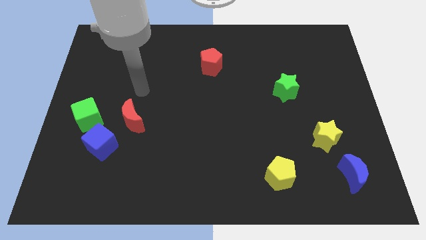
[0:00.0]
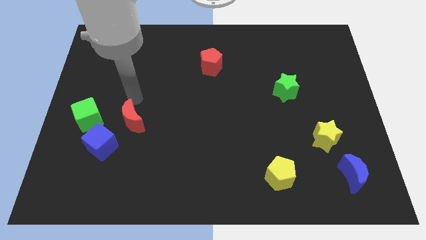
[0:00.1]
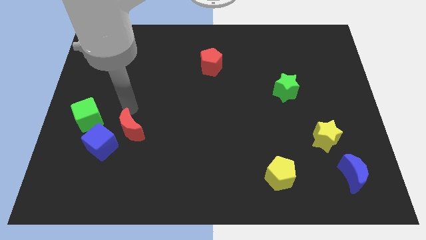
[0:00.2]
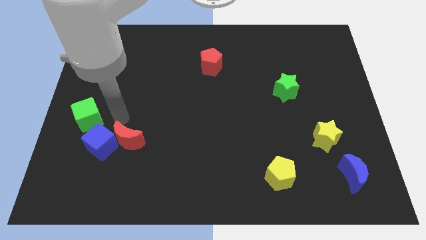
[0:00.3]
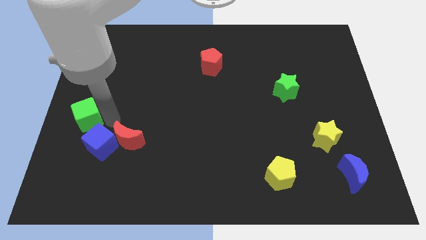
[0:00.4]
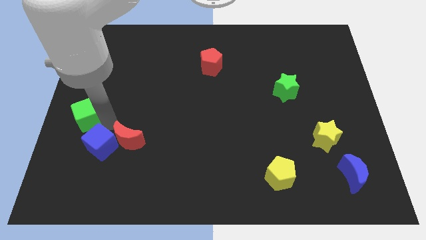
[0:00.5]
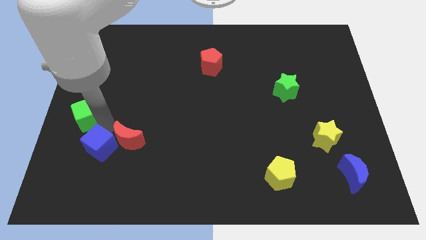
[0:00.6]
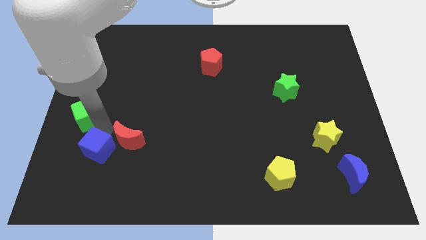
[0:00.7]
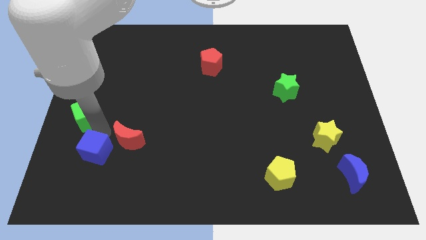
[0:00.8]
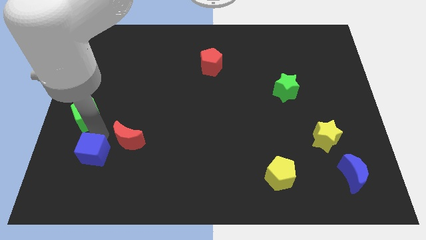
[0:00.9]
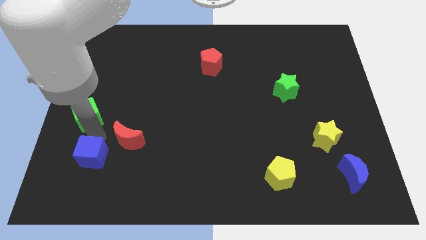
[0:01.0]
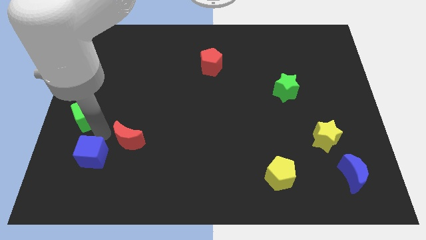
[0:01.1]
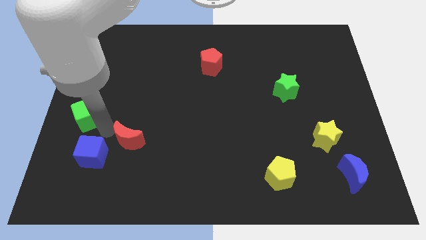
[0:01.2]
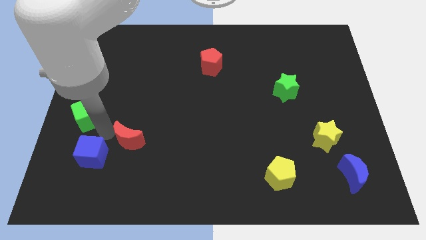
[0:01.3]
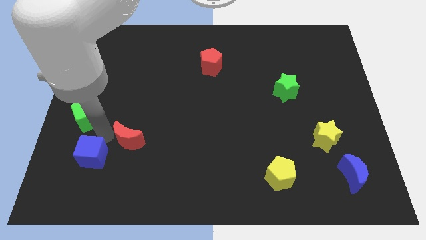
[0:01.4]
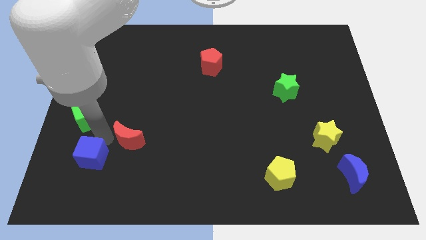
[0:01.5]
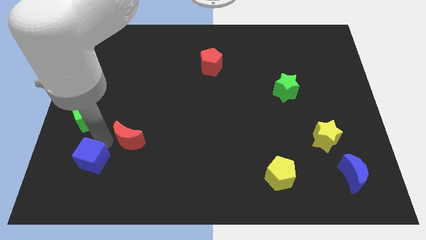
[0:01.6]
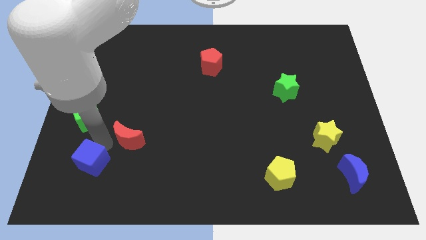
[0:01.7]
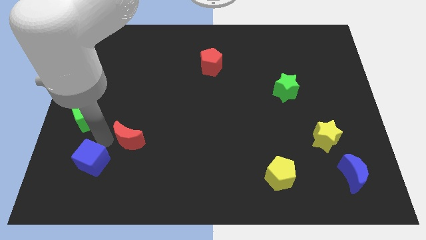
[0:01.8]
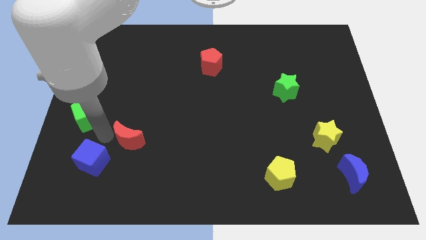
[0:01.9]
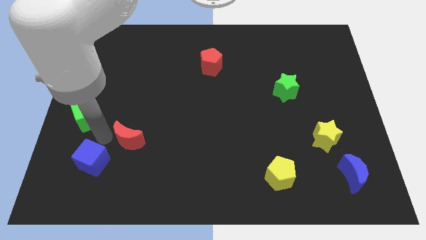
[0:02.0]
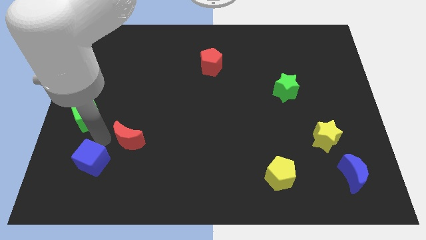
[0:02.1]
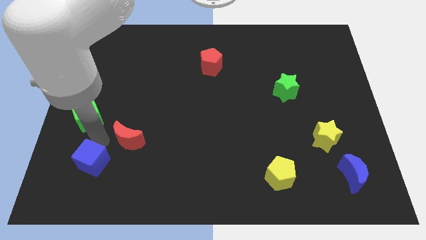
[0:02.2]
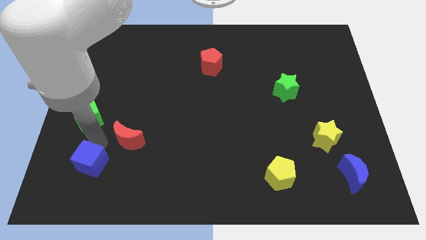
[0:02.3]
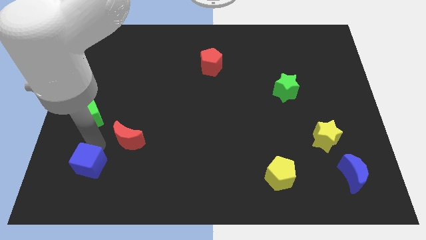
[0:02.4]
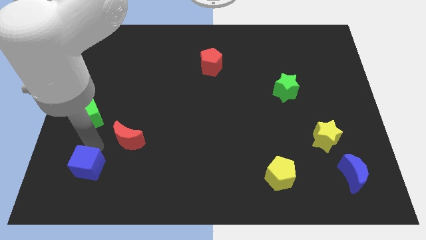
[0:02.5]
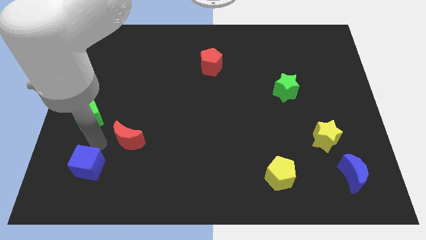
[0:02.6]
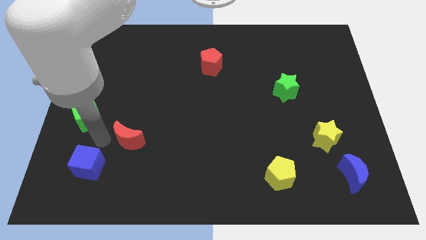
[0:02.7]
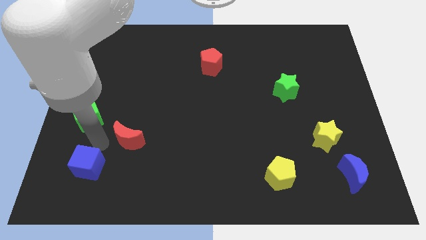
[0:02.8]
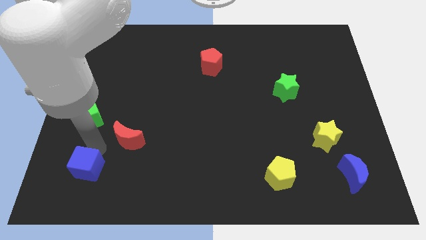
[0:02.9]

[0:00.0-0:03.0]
pull the blue cube apart from the green cube and red moon

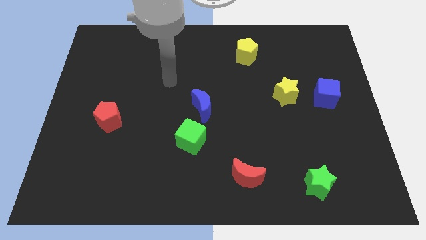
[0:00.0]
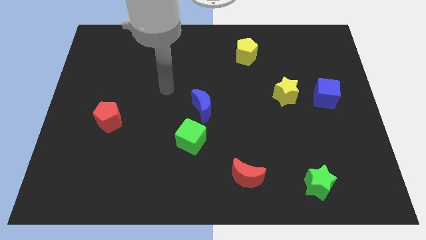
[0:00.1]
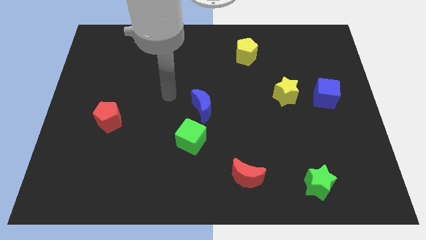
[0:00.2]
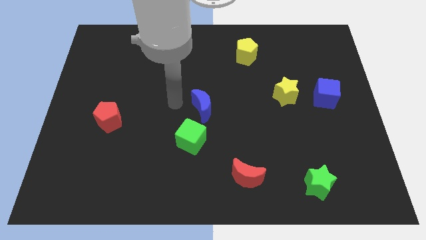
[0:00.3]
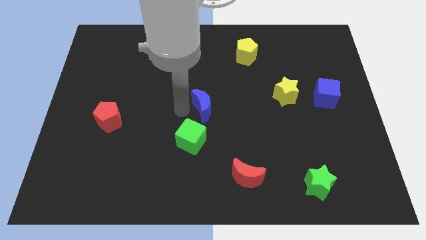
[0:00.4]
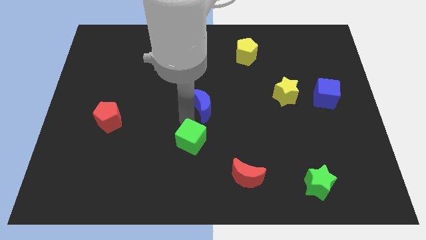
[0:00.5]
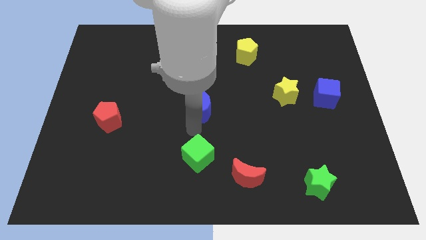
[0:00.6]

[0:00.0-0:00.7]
separate the blue moon from the green cube

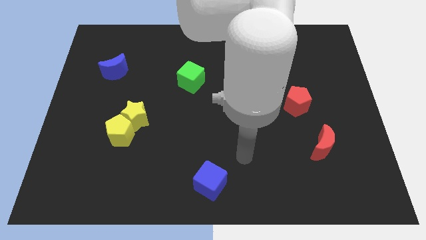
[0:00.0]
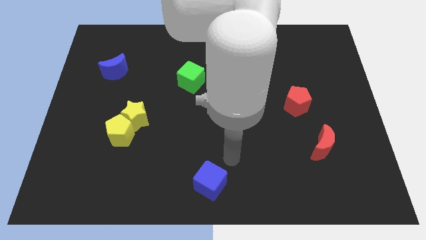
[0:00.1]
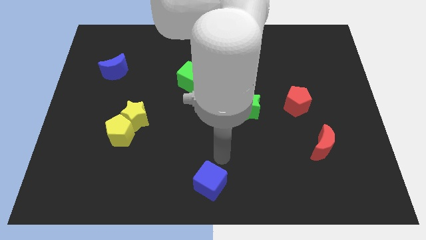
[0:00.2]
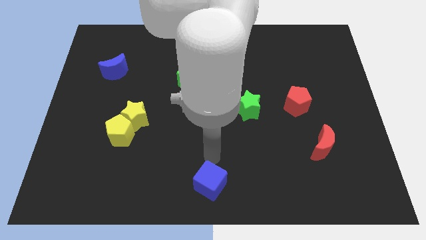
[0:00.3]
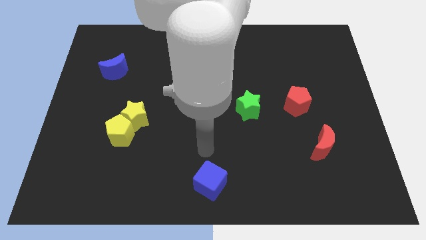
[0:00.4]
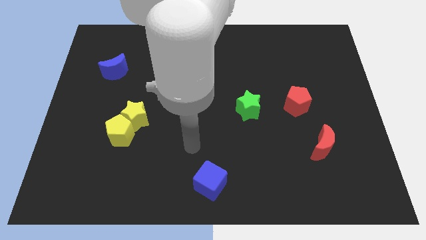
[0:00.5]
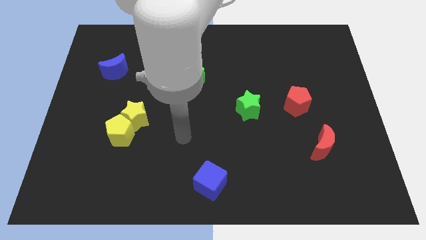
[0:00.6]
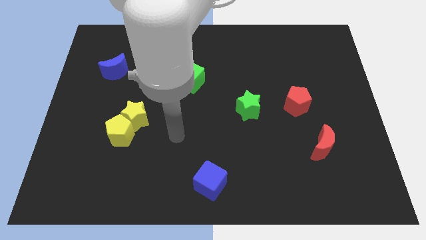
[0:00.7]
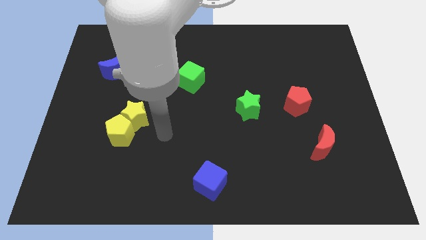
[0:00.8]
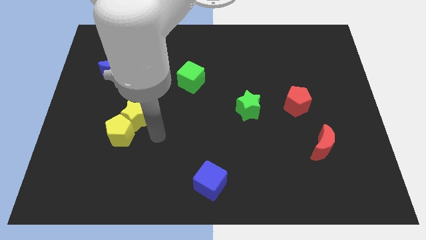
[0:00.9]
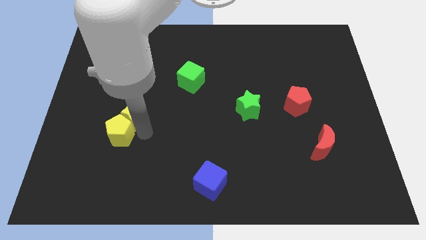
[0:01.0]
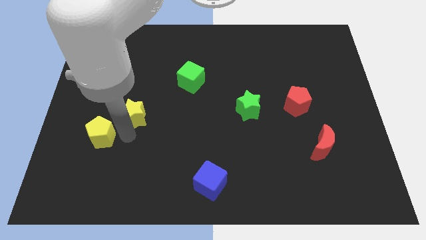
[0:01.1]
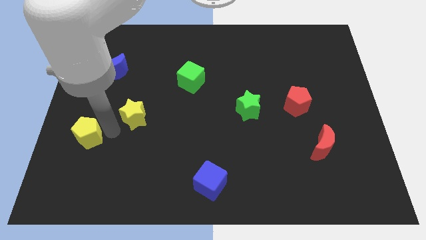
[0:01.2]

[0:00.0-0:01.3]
pull the yellow star apart from the yellow pentagon

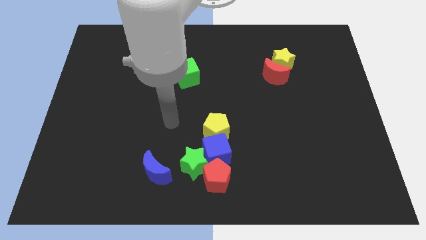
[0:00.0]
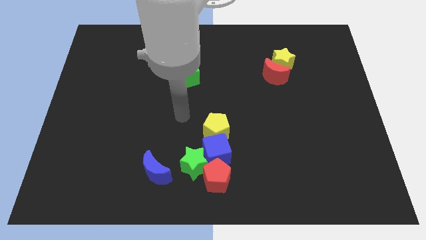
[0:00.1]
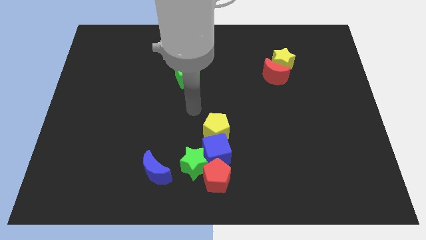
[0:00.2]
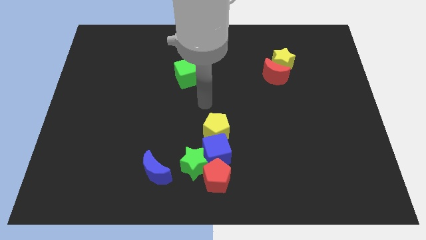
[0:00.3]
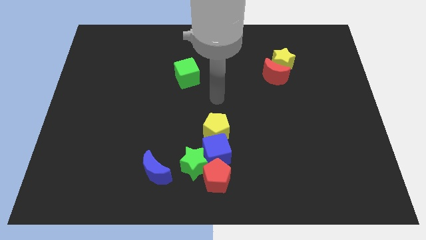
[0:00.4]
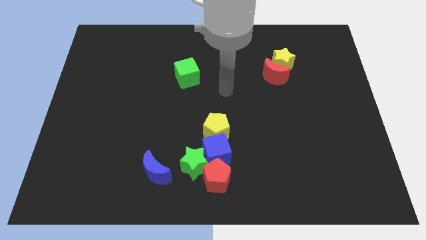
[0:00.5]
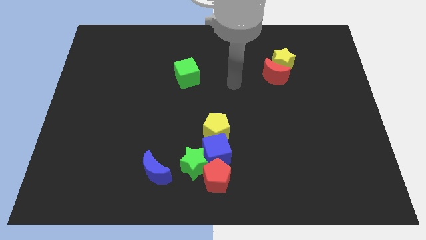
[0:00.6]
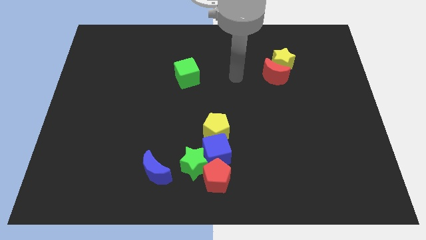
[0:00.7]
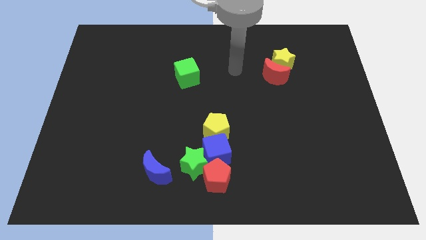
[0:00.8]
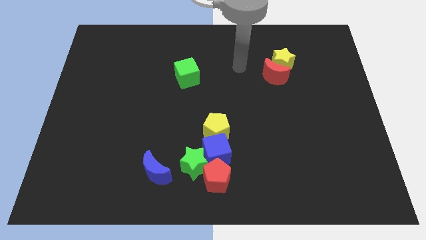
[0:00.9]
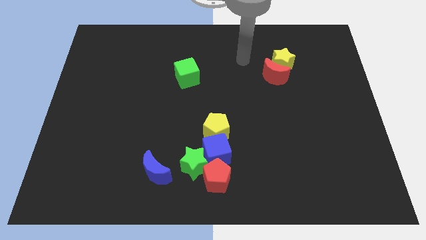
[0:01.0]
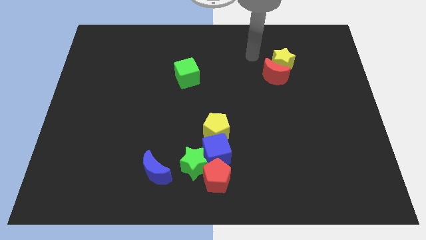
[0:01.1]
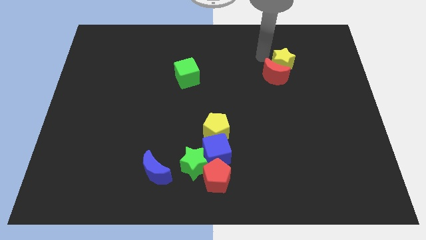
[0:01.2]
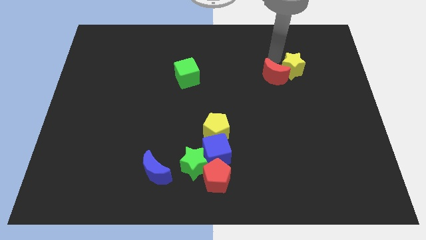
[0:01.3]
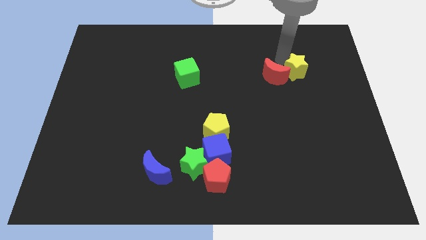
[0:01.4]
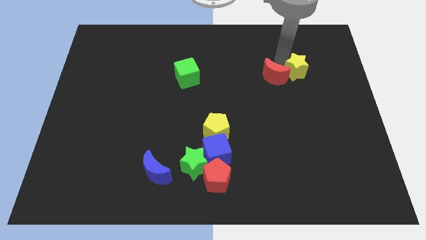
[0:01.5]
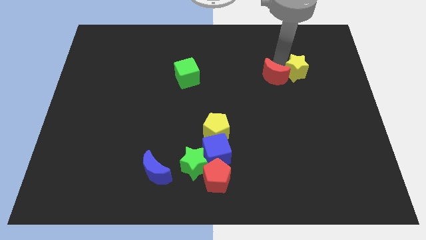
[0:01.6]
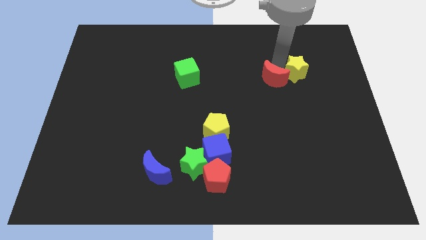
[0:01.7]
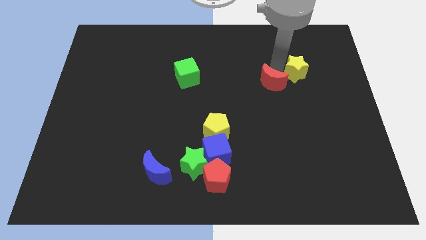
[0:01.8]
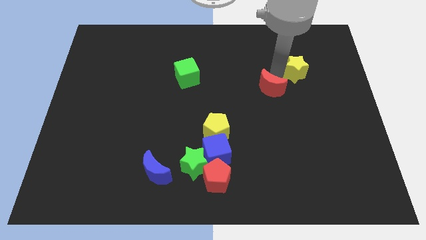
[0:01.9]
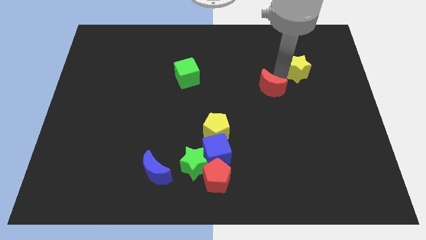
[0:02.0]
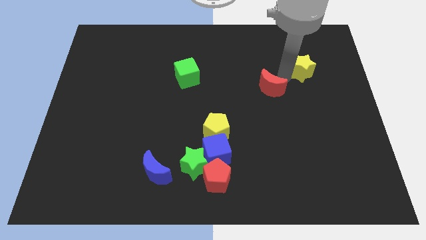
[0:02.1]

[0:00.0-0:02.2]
move the red moon away from the yellow star

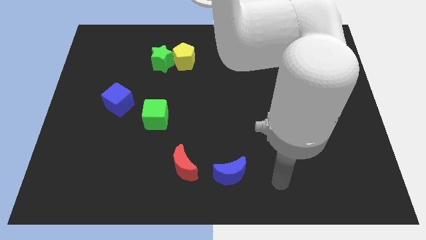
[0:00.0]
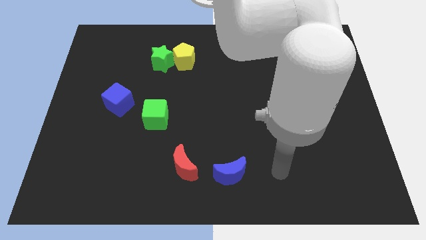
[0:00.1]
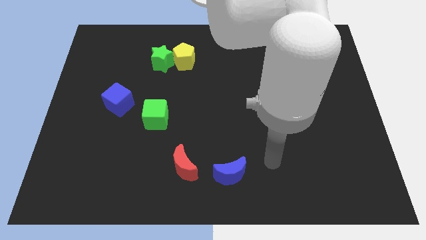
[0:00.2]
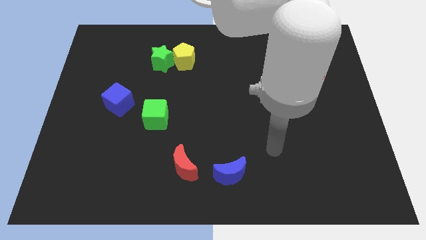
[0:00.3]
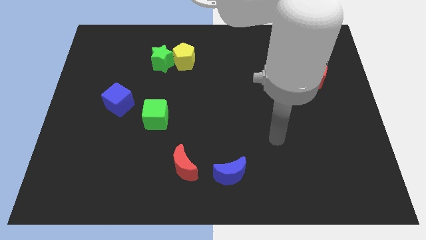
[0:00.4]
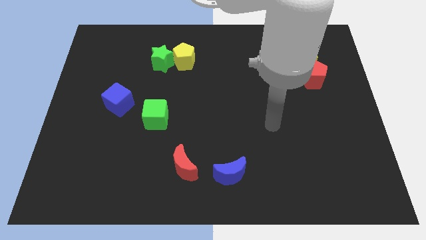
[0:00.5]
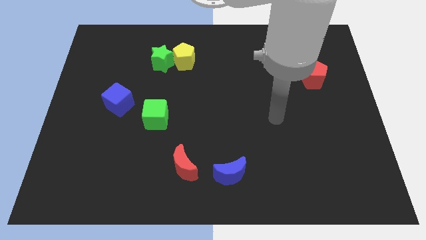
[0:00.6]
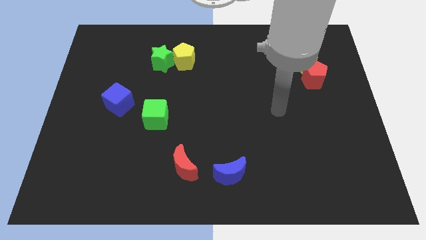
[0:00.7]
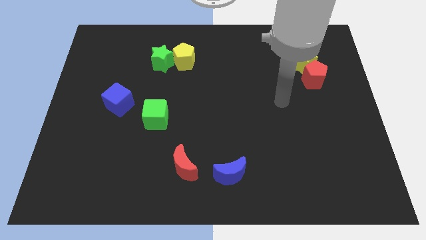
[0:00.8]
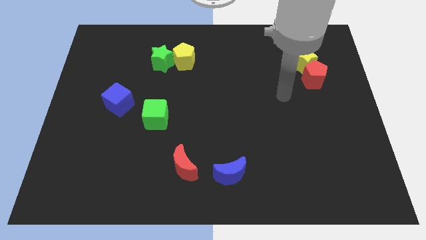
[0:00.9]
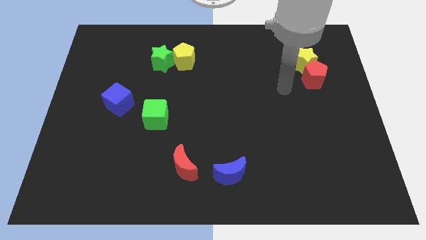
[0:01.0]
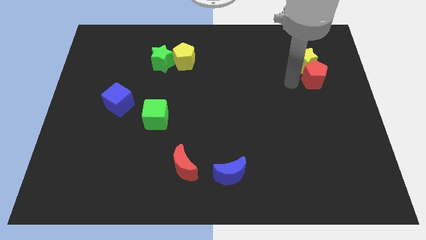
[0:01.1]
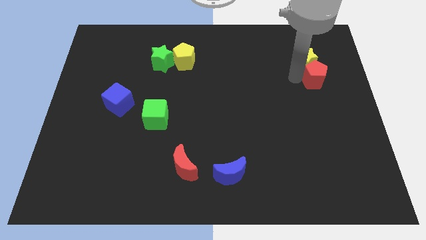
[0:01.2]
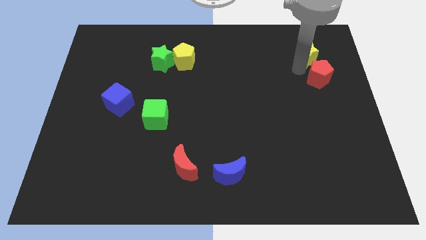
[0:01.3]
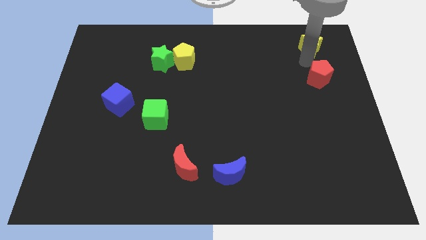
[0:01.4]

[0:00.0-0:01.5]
separate the red pentagon from the yellow star

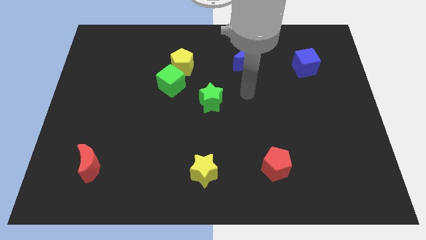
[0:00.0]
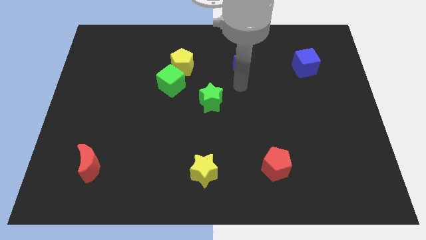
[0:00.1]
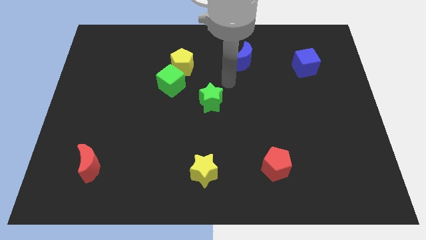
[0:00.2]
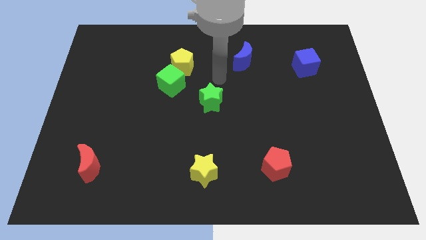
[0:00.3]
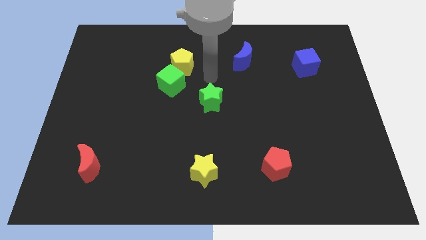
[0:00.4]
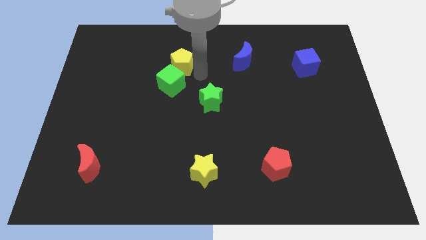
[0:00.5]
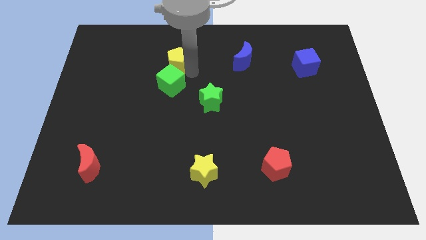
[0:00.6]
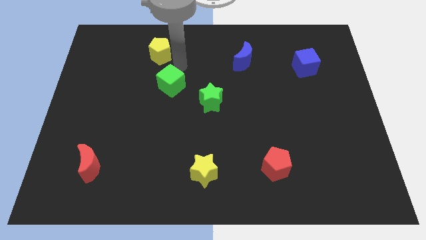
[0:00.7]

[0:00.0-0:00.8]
pull the green cube apart from the yellow pentagon
